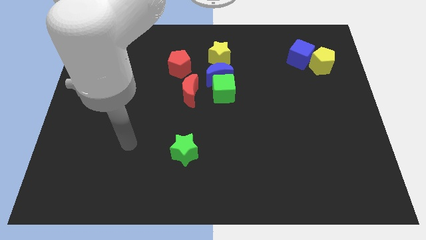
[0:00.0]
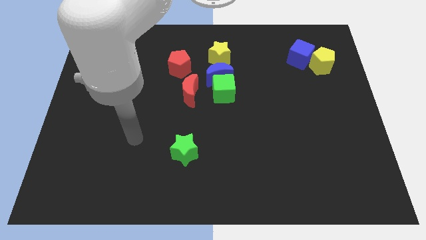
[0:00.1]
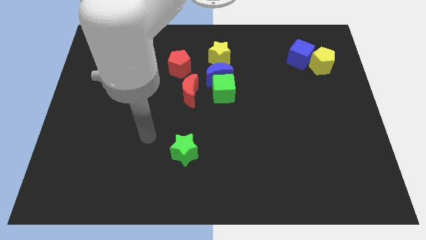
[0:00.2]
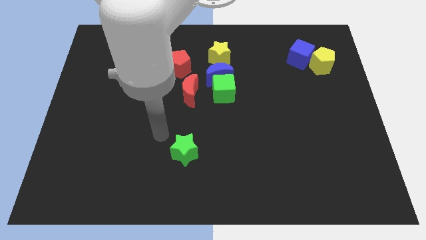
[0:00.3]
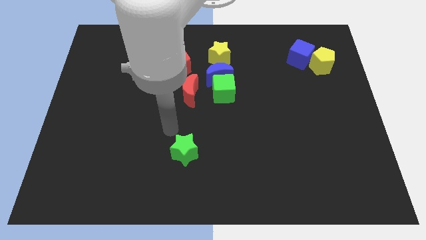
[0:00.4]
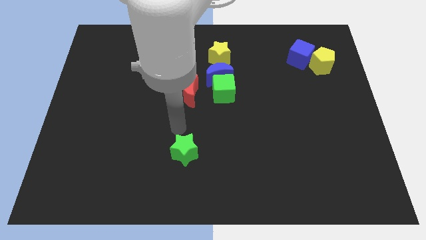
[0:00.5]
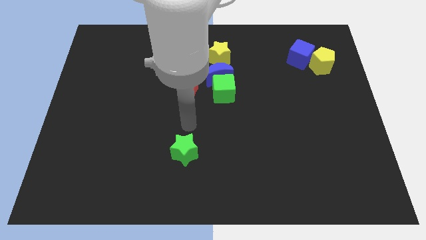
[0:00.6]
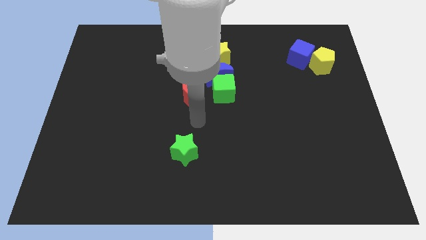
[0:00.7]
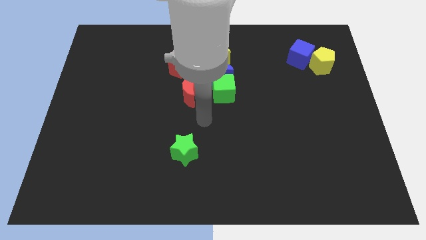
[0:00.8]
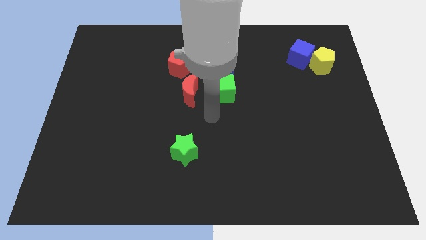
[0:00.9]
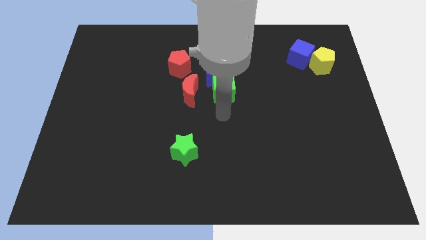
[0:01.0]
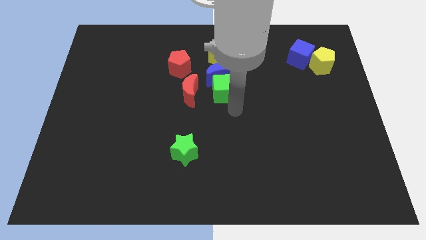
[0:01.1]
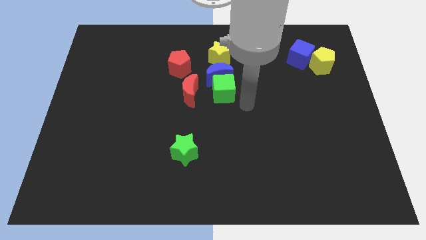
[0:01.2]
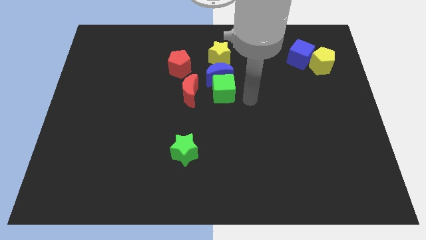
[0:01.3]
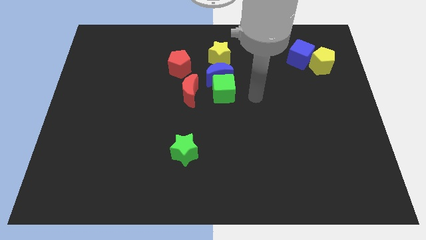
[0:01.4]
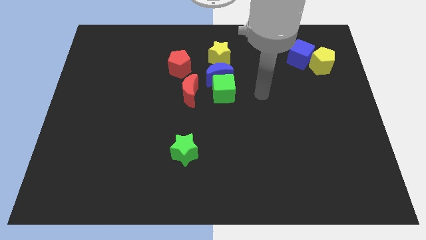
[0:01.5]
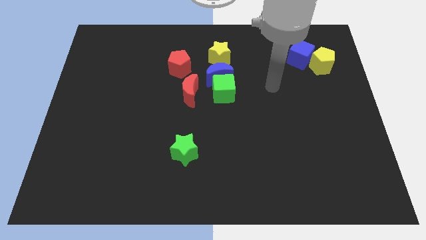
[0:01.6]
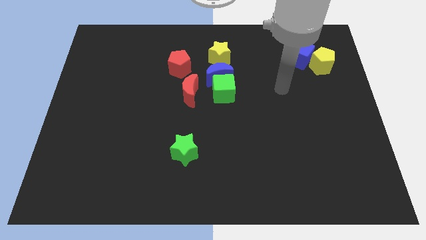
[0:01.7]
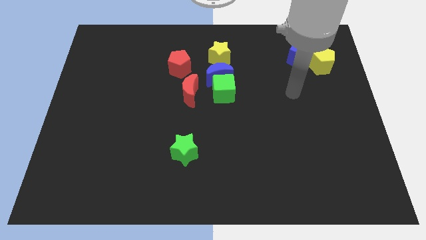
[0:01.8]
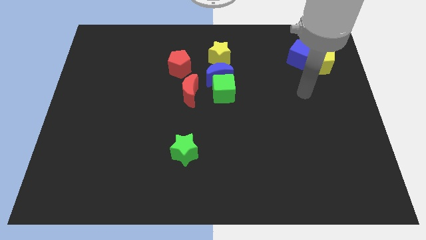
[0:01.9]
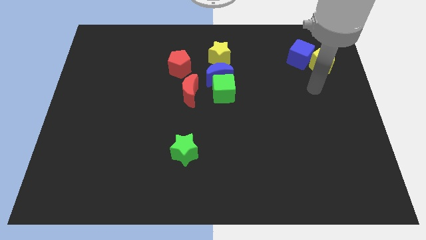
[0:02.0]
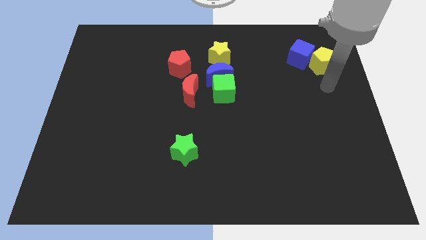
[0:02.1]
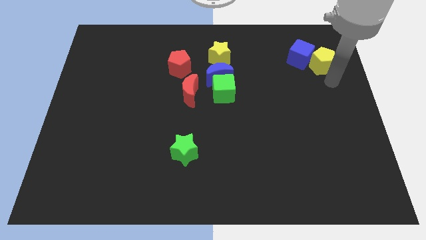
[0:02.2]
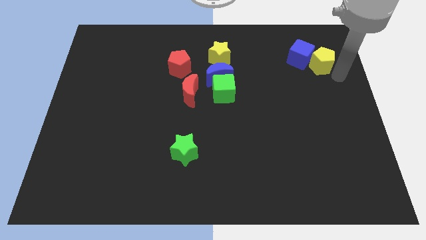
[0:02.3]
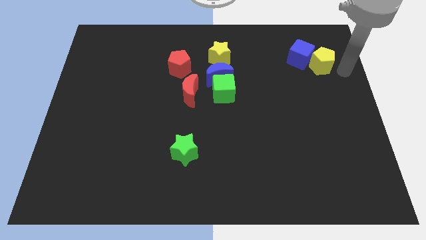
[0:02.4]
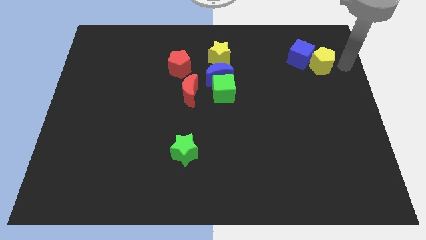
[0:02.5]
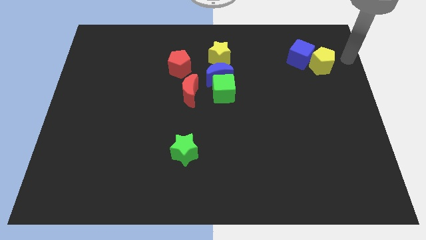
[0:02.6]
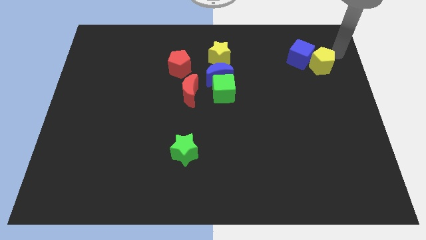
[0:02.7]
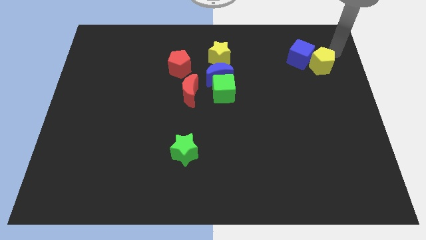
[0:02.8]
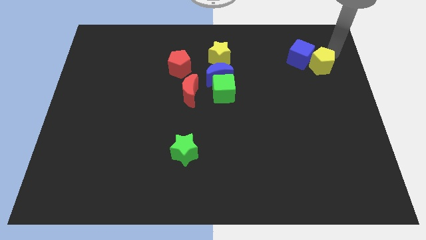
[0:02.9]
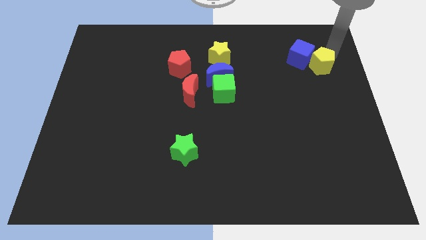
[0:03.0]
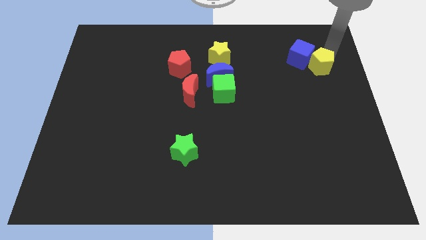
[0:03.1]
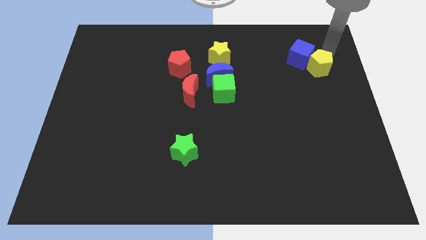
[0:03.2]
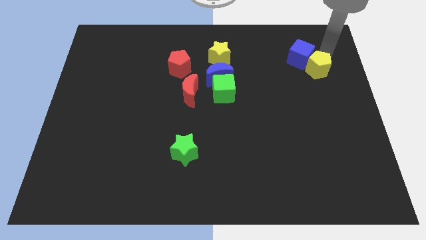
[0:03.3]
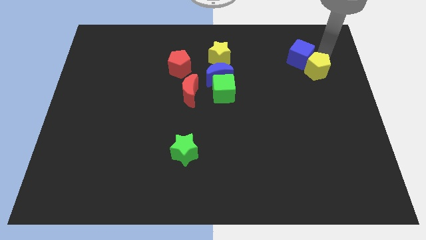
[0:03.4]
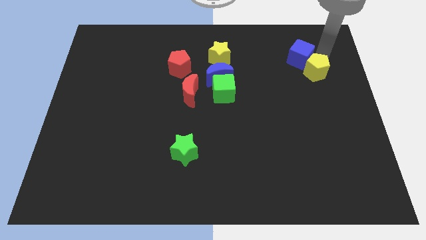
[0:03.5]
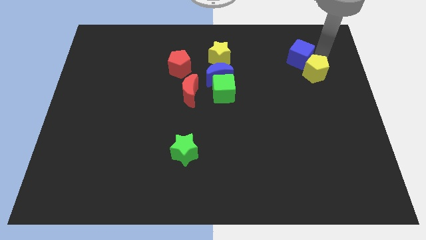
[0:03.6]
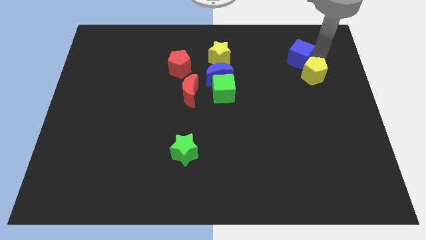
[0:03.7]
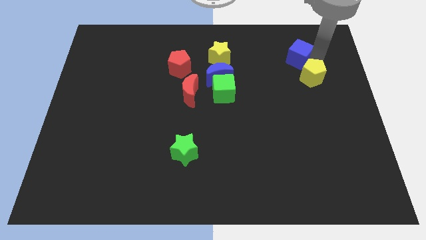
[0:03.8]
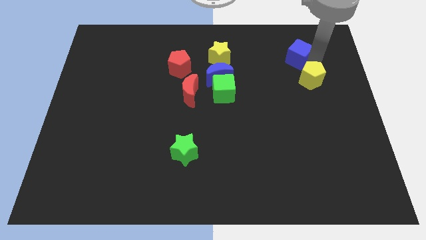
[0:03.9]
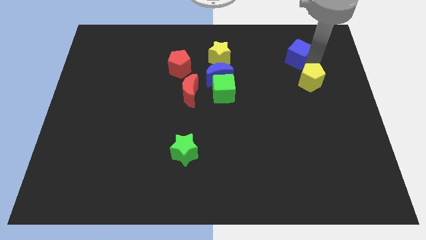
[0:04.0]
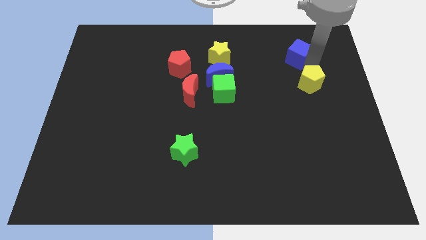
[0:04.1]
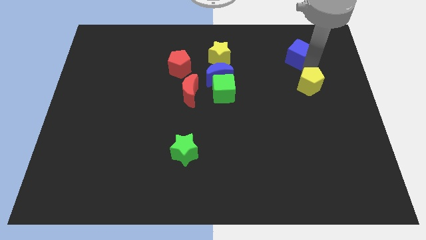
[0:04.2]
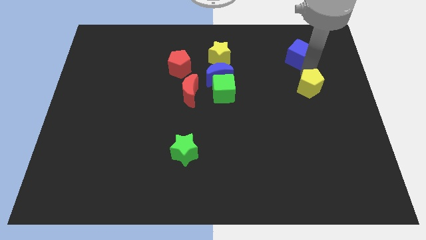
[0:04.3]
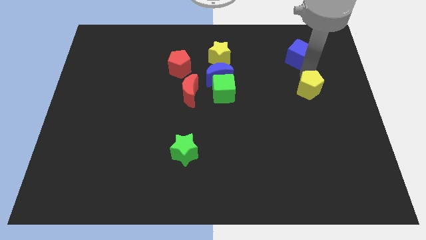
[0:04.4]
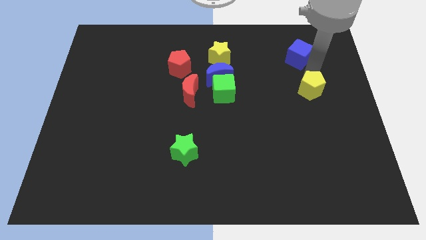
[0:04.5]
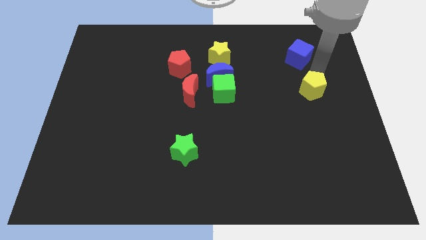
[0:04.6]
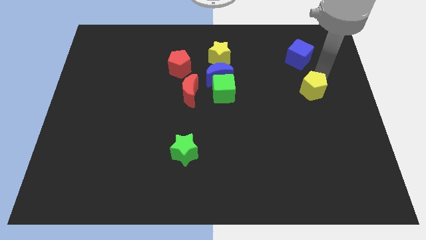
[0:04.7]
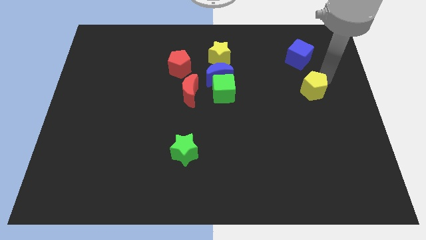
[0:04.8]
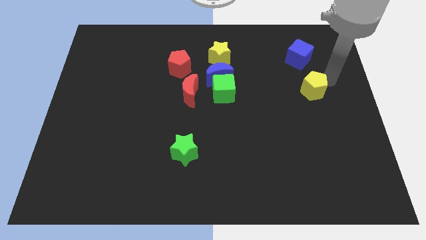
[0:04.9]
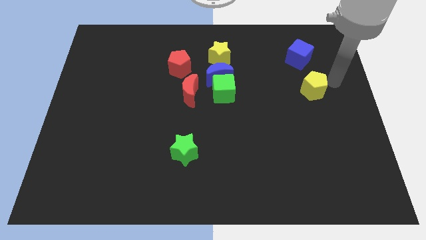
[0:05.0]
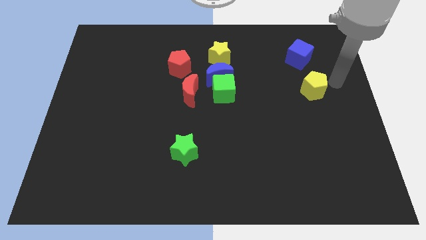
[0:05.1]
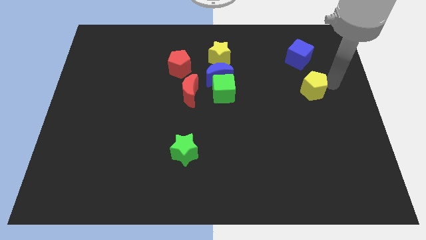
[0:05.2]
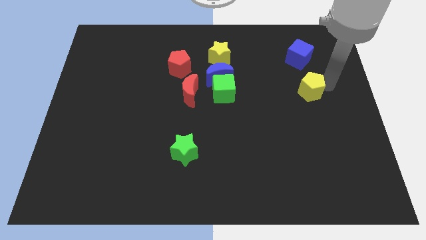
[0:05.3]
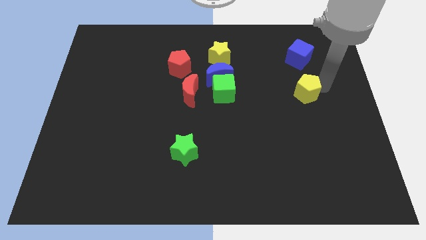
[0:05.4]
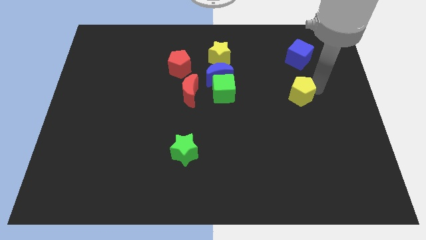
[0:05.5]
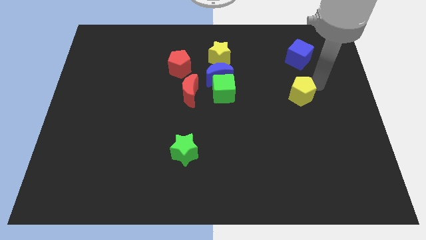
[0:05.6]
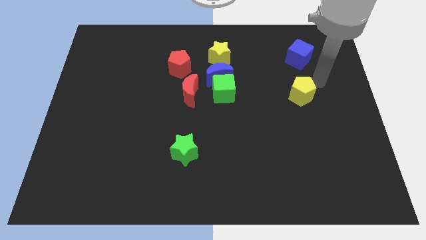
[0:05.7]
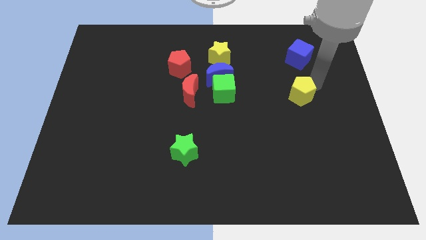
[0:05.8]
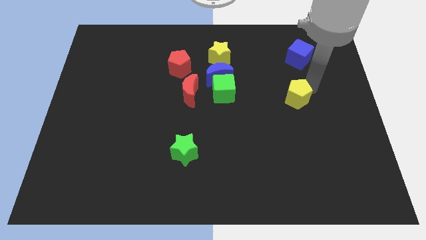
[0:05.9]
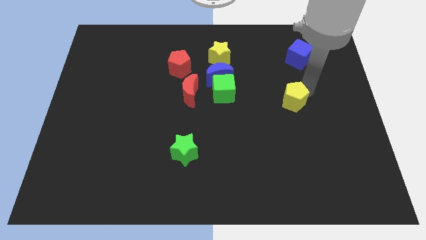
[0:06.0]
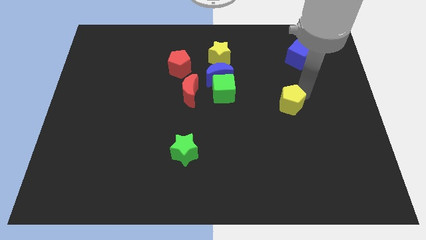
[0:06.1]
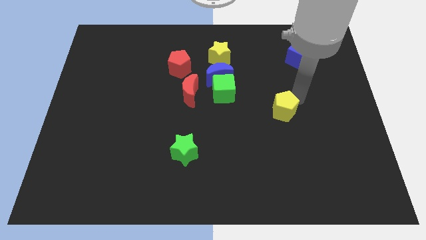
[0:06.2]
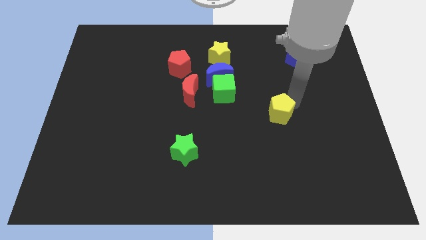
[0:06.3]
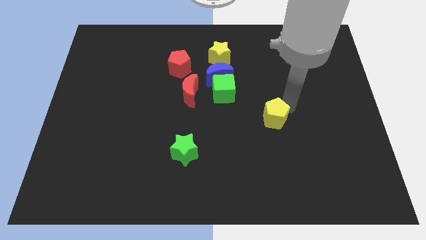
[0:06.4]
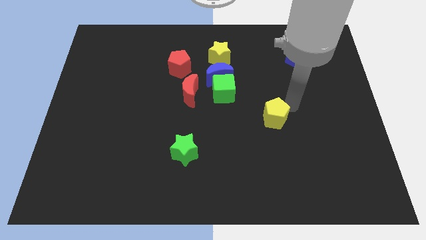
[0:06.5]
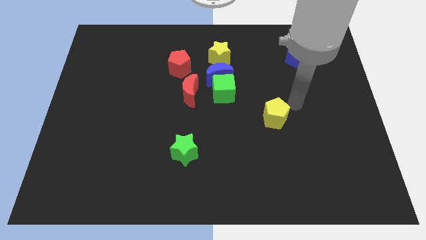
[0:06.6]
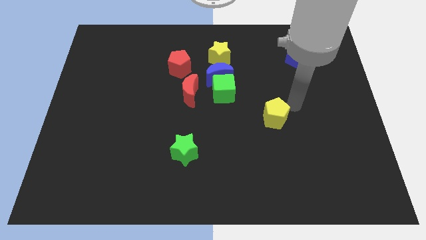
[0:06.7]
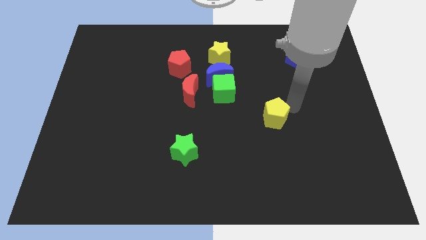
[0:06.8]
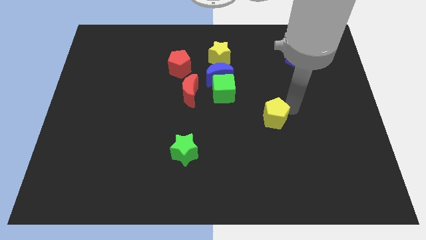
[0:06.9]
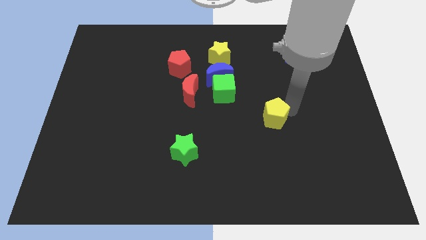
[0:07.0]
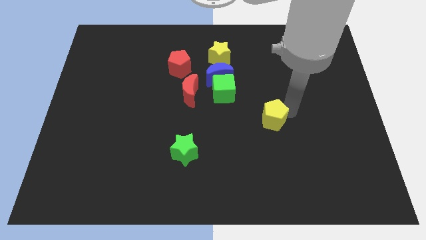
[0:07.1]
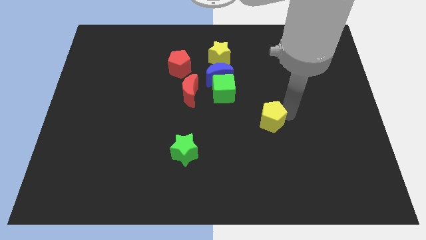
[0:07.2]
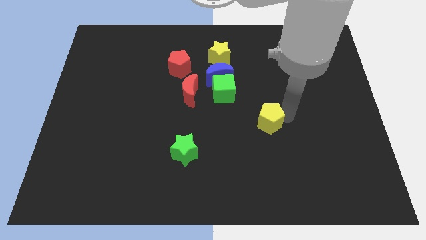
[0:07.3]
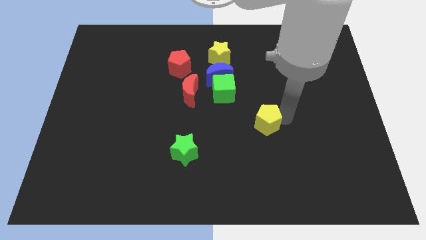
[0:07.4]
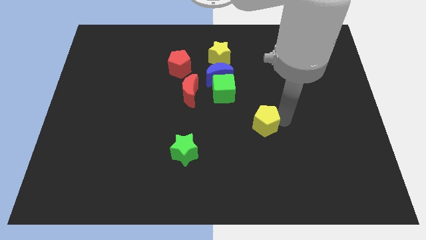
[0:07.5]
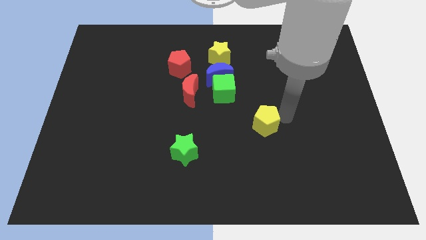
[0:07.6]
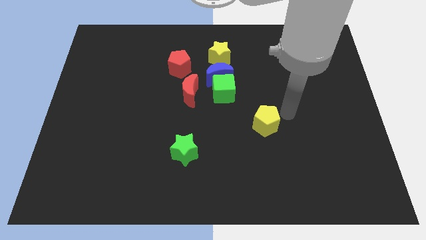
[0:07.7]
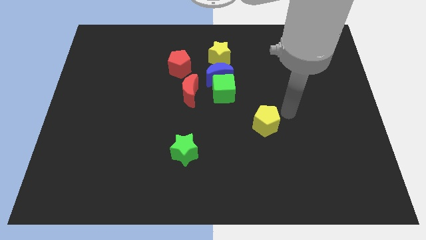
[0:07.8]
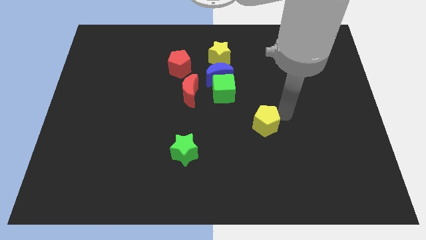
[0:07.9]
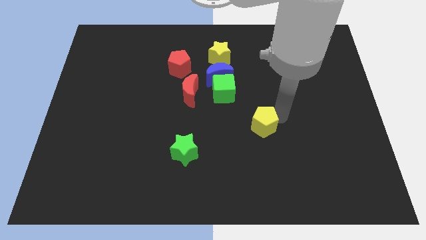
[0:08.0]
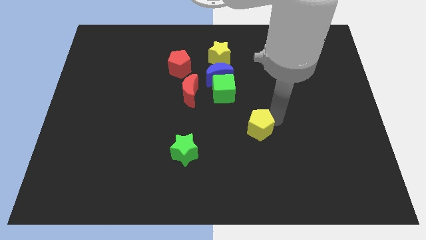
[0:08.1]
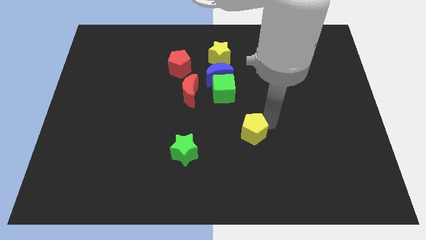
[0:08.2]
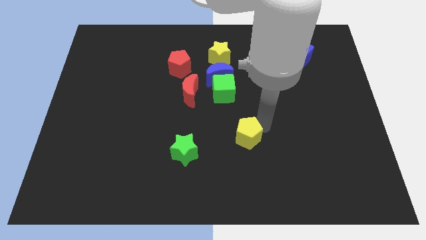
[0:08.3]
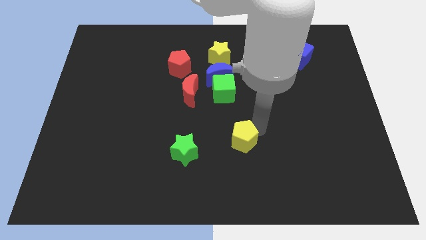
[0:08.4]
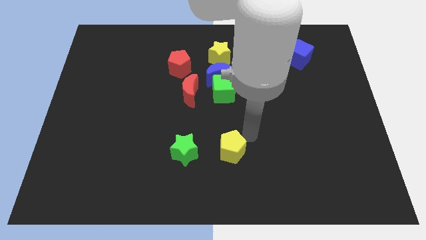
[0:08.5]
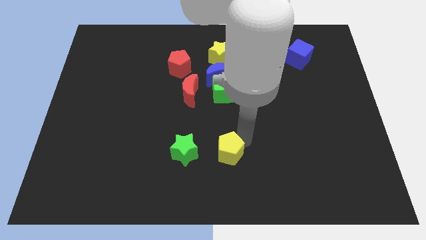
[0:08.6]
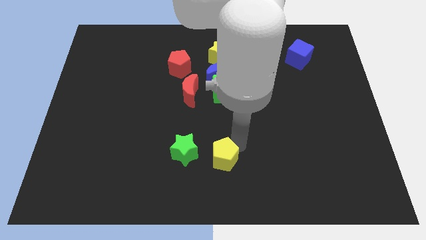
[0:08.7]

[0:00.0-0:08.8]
slide the yellow pentagon to the bottom right of the green star
